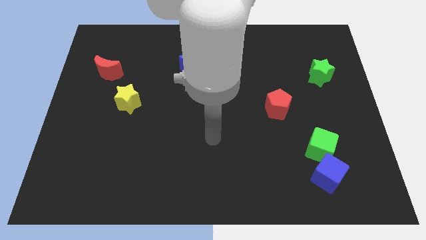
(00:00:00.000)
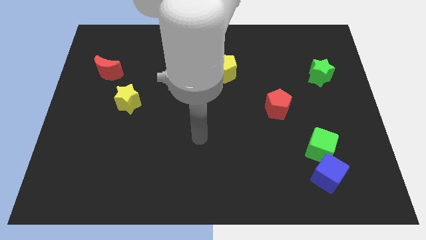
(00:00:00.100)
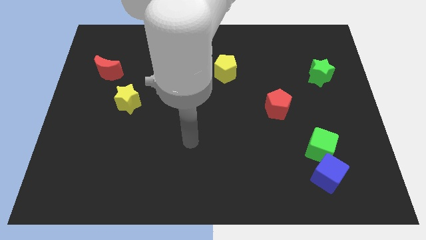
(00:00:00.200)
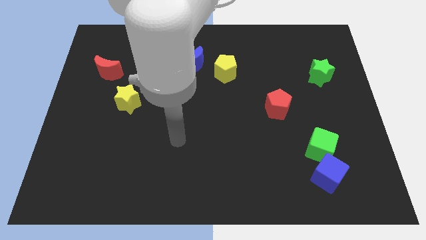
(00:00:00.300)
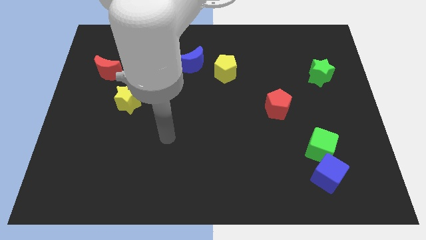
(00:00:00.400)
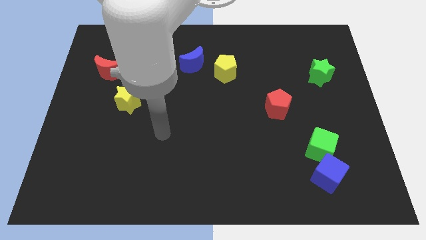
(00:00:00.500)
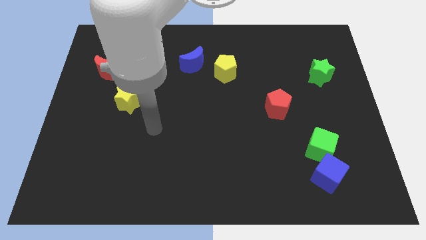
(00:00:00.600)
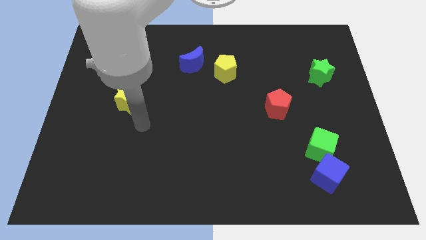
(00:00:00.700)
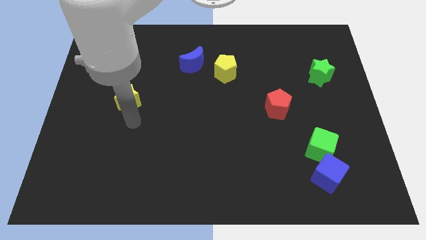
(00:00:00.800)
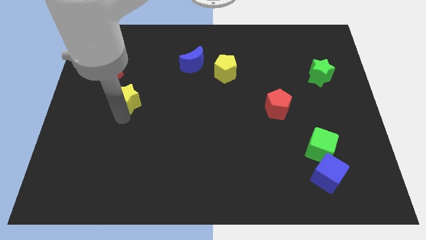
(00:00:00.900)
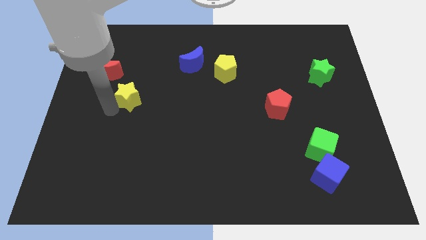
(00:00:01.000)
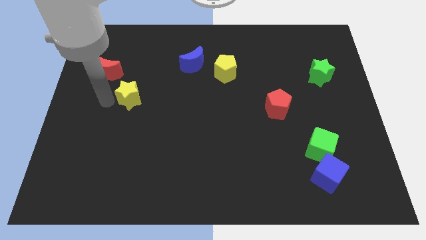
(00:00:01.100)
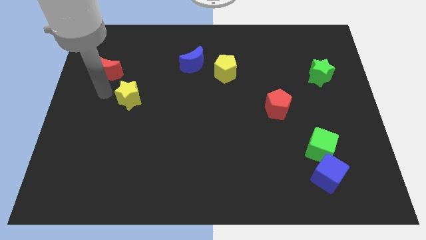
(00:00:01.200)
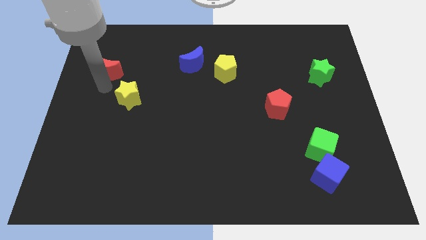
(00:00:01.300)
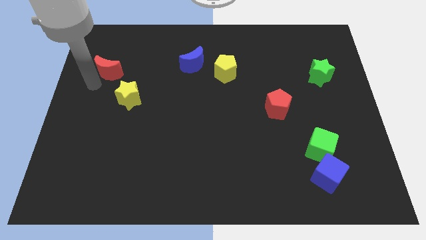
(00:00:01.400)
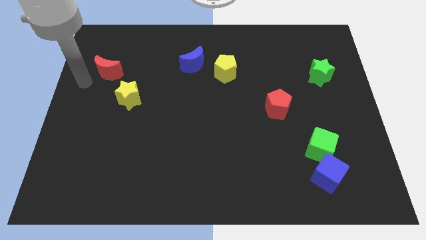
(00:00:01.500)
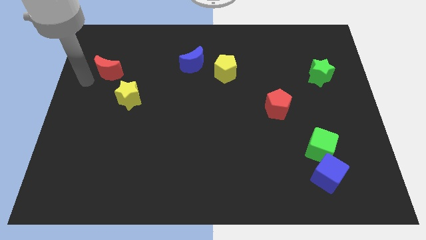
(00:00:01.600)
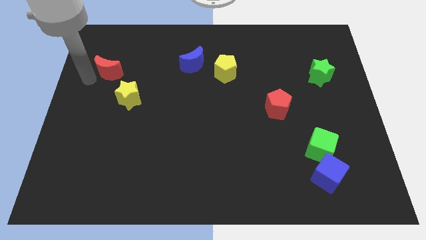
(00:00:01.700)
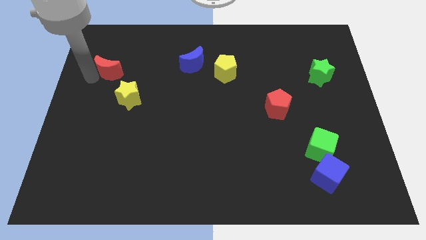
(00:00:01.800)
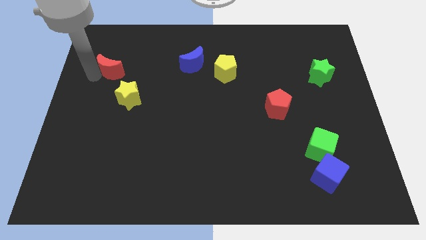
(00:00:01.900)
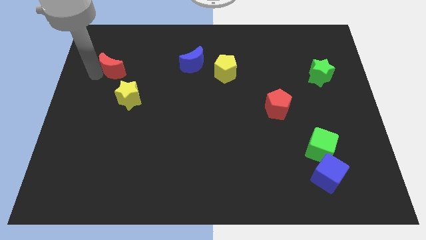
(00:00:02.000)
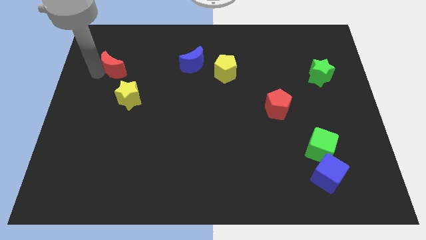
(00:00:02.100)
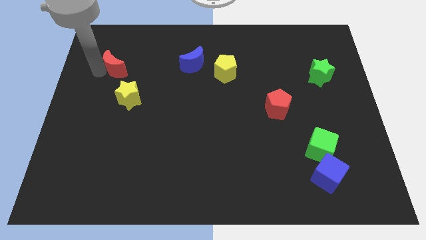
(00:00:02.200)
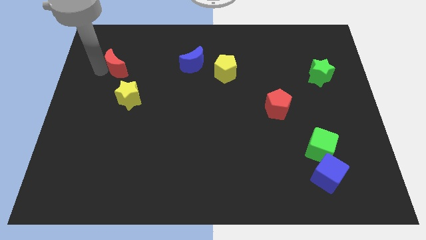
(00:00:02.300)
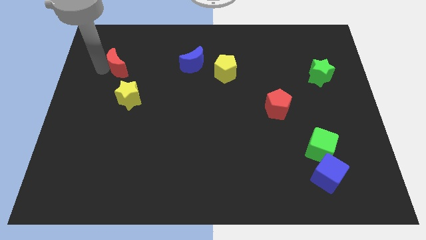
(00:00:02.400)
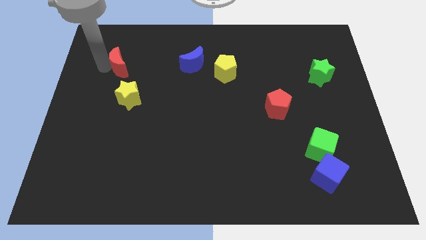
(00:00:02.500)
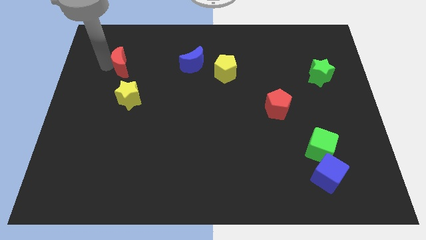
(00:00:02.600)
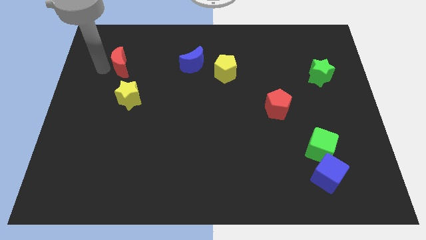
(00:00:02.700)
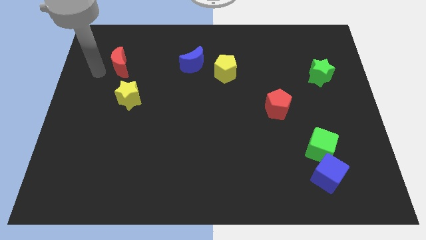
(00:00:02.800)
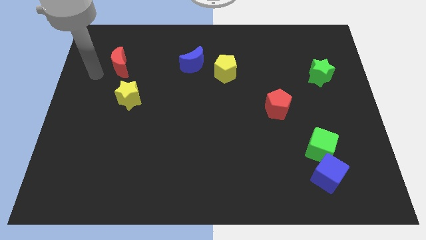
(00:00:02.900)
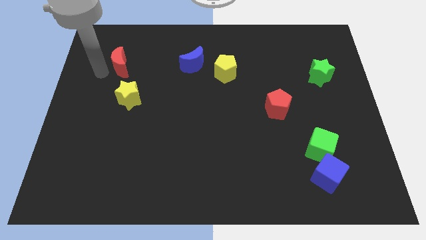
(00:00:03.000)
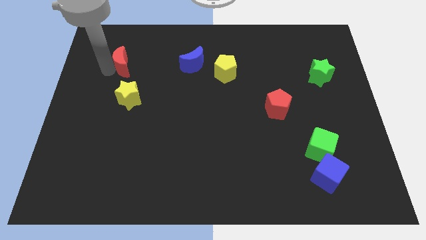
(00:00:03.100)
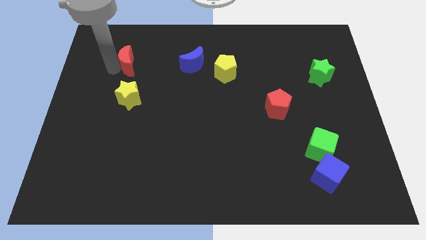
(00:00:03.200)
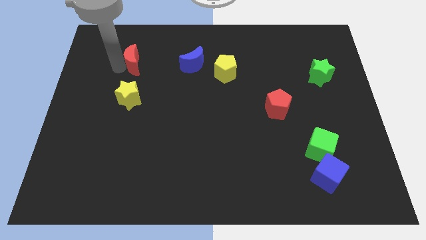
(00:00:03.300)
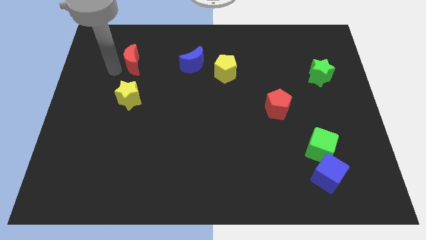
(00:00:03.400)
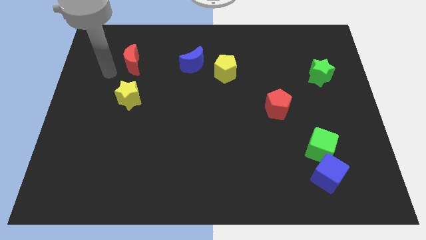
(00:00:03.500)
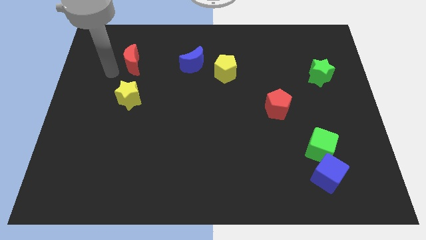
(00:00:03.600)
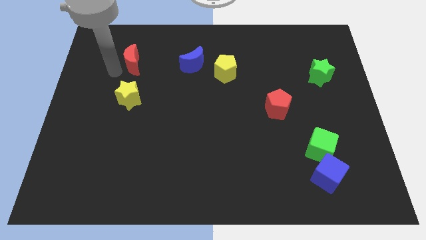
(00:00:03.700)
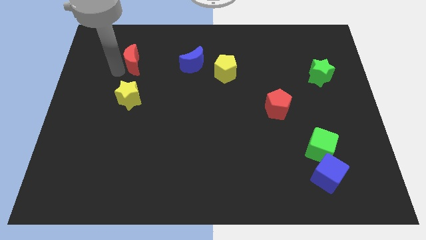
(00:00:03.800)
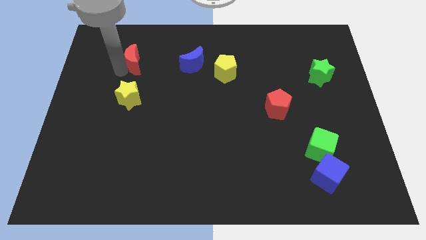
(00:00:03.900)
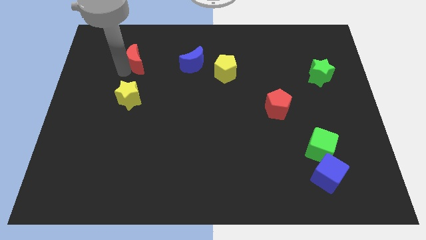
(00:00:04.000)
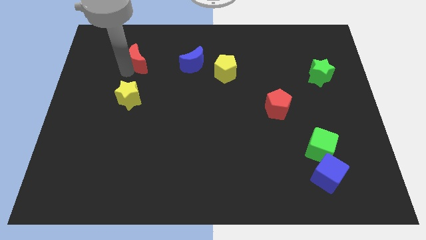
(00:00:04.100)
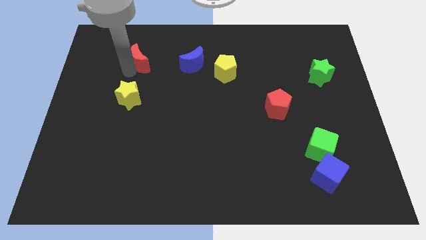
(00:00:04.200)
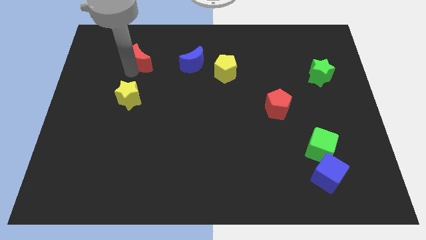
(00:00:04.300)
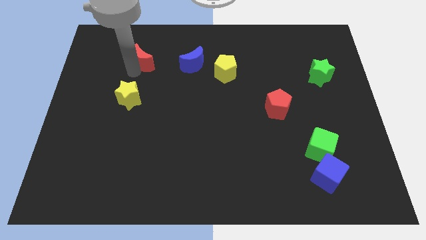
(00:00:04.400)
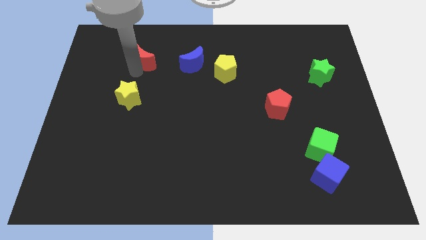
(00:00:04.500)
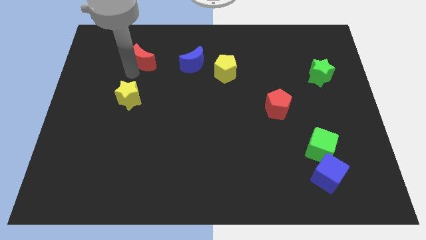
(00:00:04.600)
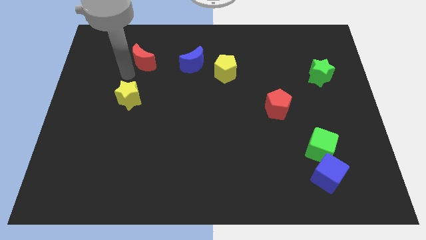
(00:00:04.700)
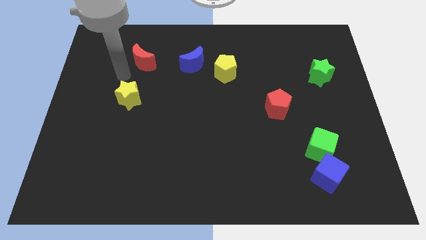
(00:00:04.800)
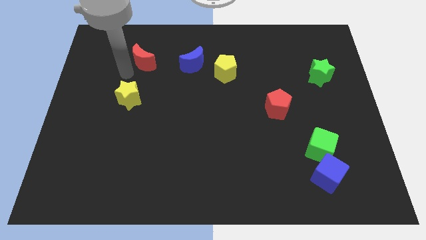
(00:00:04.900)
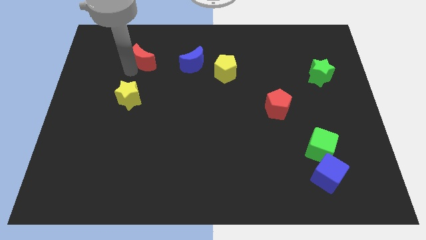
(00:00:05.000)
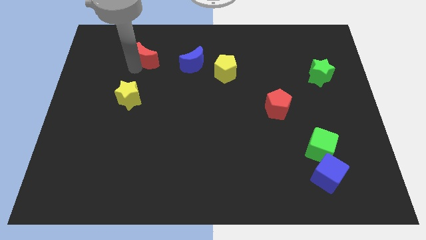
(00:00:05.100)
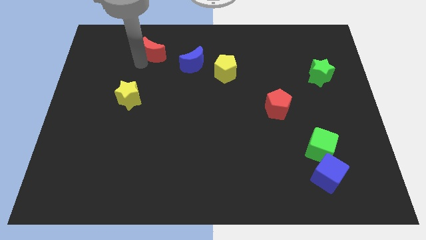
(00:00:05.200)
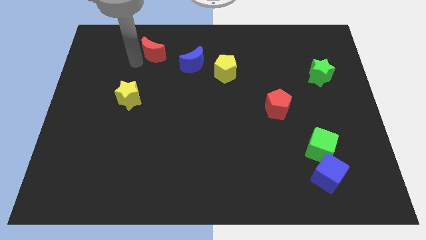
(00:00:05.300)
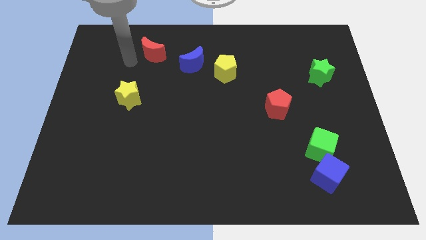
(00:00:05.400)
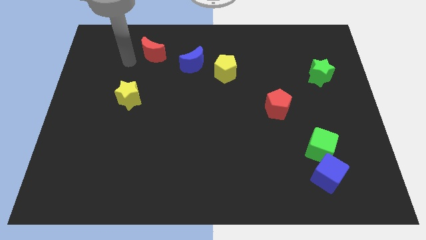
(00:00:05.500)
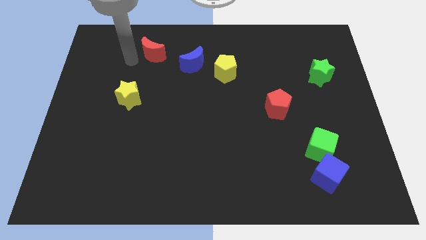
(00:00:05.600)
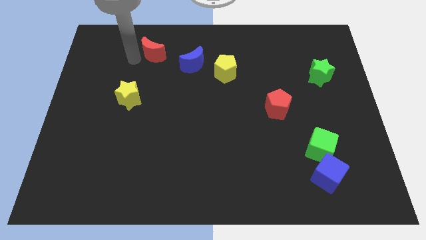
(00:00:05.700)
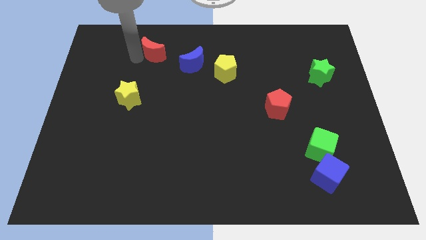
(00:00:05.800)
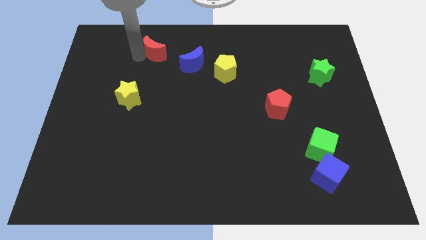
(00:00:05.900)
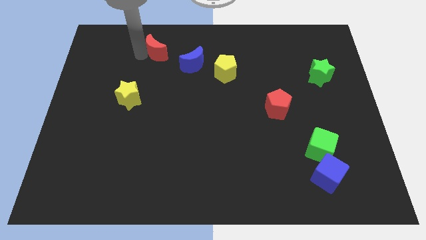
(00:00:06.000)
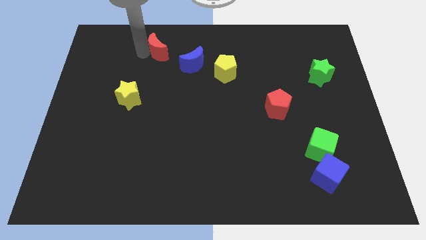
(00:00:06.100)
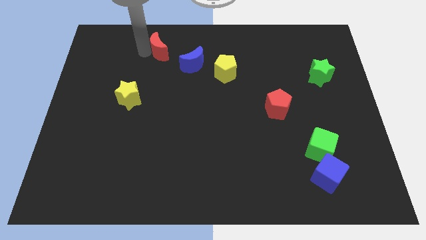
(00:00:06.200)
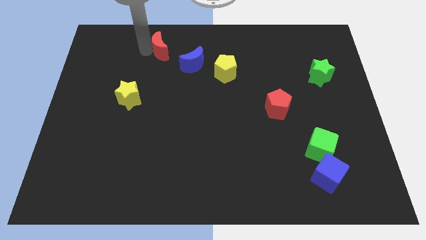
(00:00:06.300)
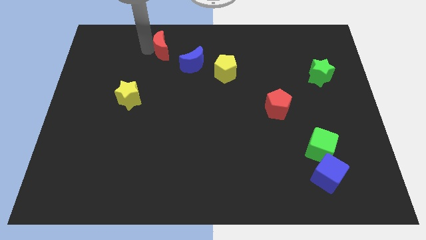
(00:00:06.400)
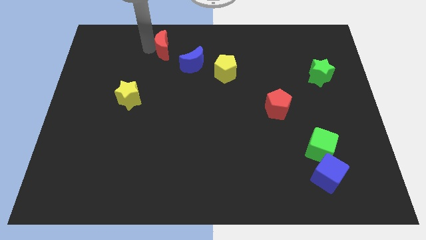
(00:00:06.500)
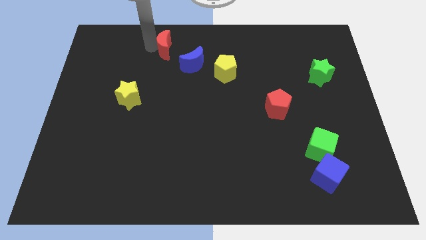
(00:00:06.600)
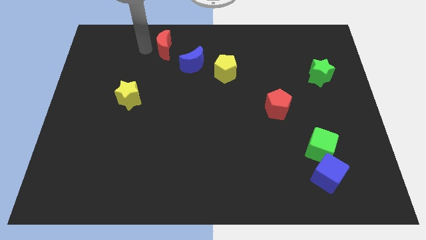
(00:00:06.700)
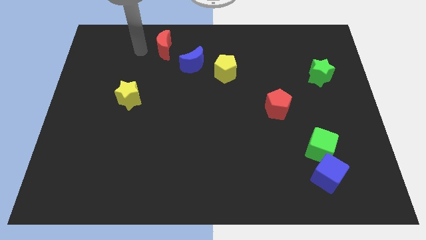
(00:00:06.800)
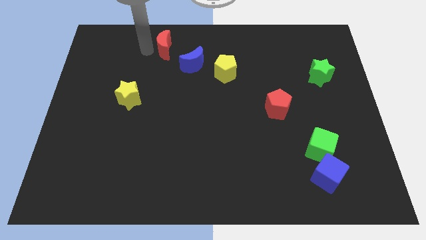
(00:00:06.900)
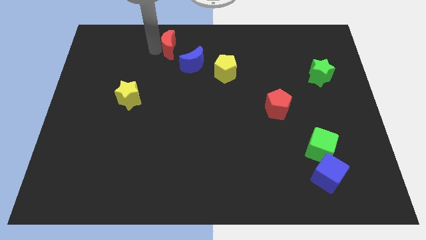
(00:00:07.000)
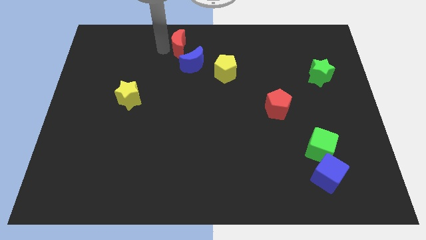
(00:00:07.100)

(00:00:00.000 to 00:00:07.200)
move the red moon to the top side
